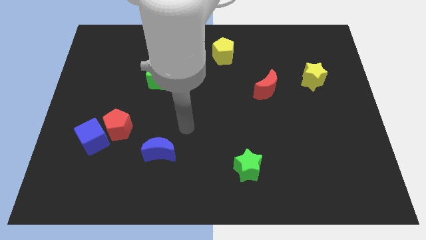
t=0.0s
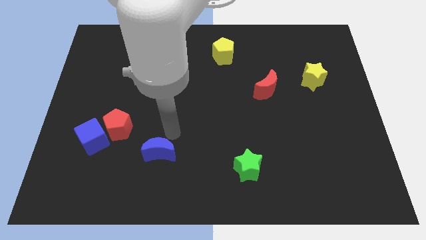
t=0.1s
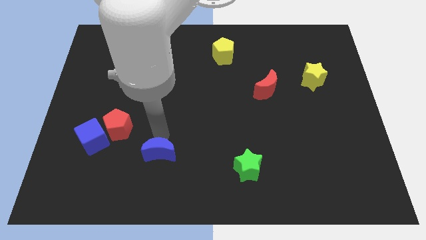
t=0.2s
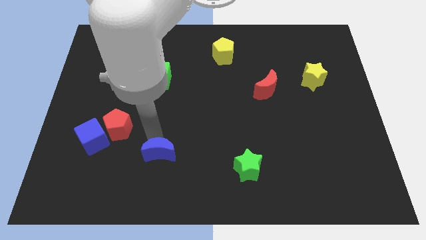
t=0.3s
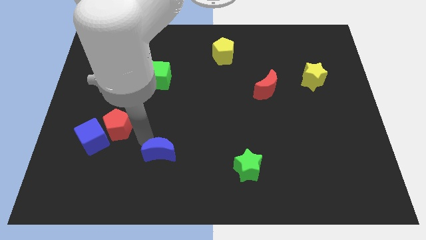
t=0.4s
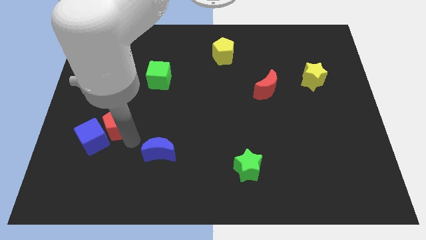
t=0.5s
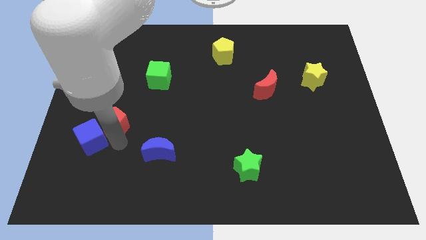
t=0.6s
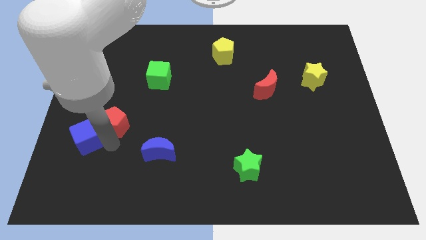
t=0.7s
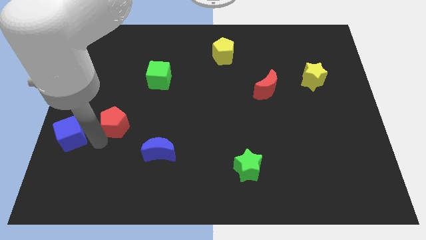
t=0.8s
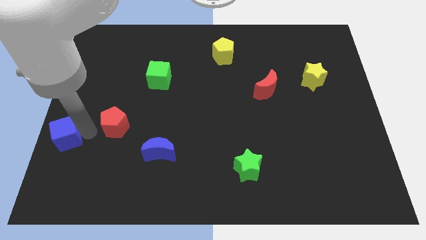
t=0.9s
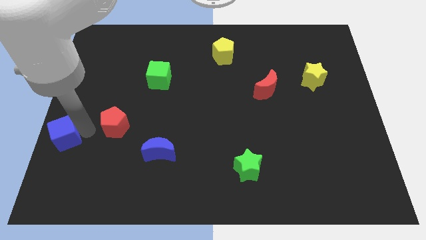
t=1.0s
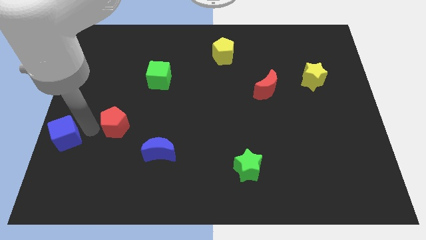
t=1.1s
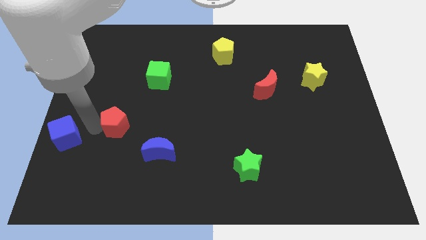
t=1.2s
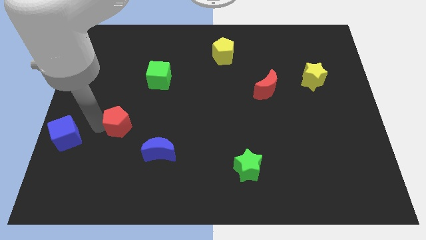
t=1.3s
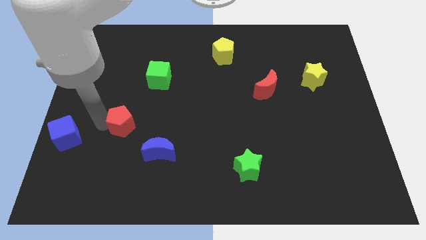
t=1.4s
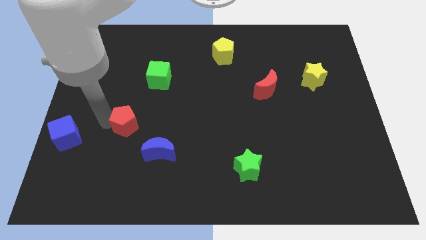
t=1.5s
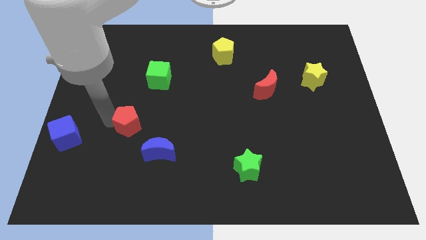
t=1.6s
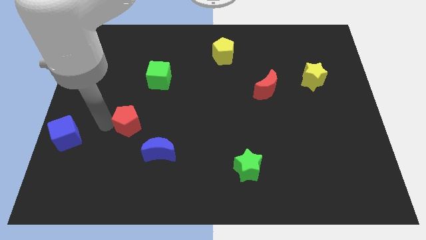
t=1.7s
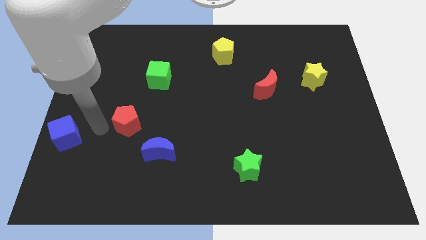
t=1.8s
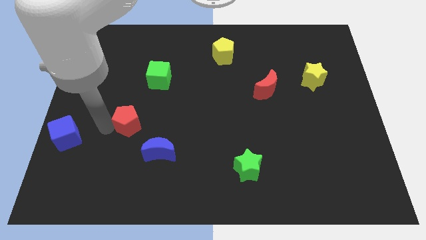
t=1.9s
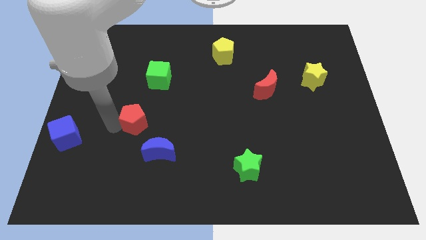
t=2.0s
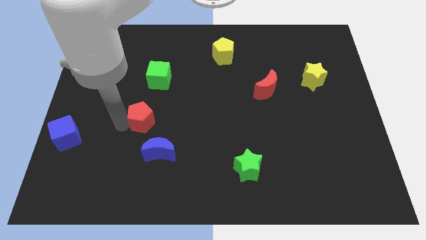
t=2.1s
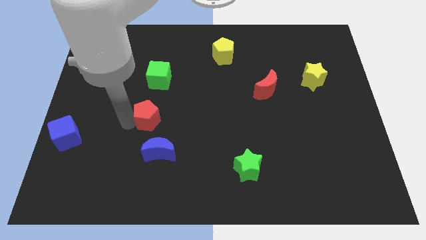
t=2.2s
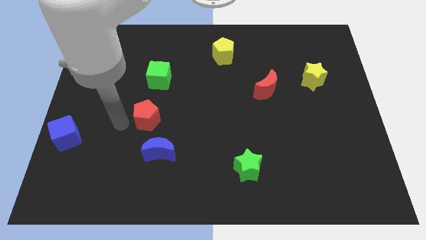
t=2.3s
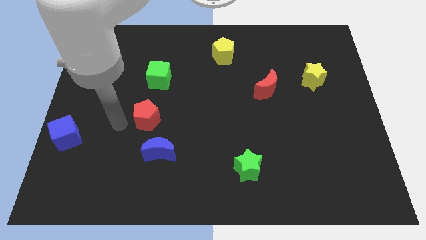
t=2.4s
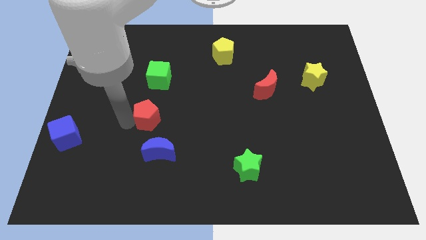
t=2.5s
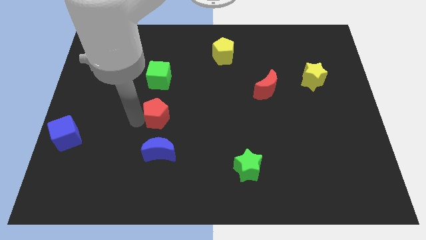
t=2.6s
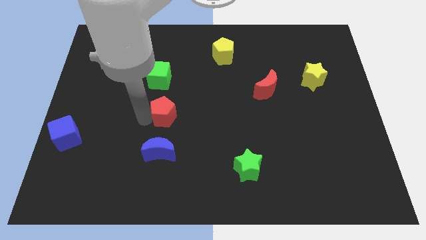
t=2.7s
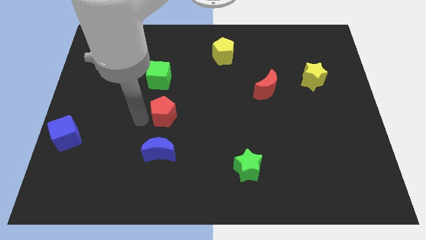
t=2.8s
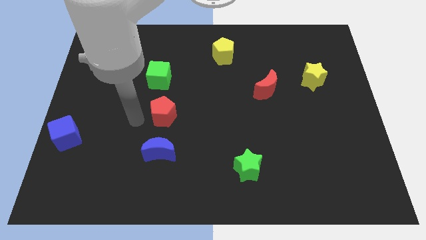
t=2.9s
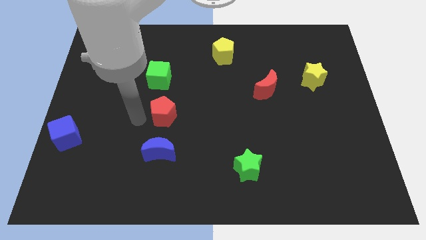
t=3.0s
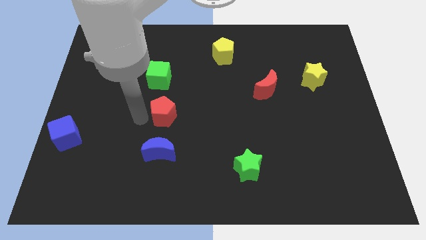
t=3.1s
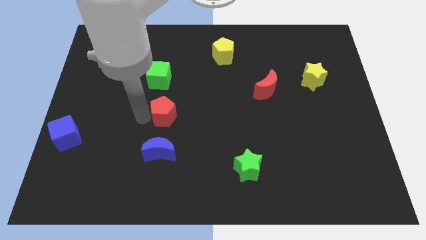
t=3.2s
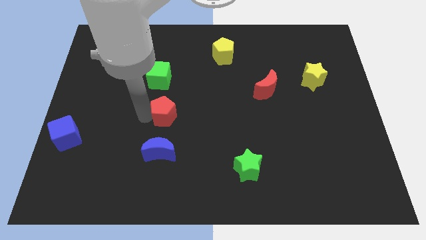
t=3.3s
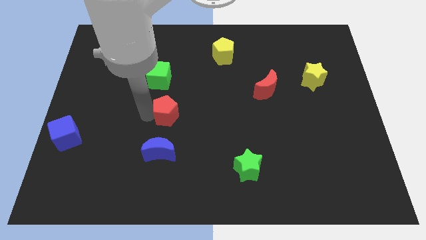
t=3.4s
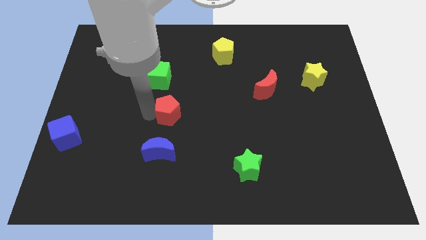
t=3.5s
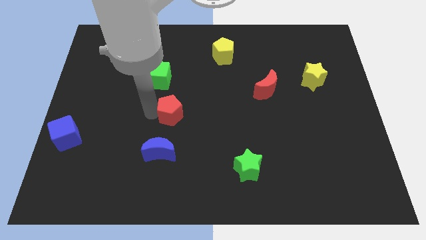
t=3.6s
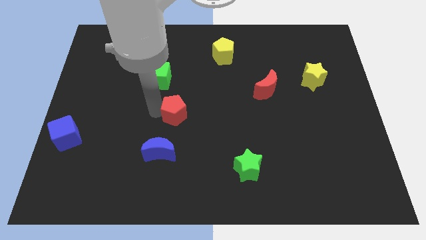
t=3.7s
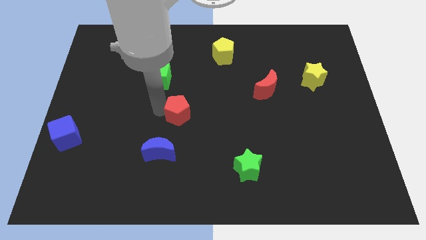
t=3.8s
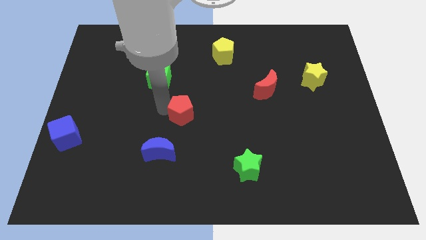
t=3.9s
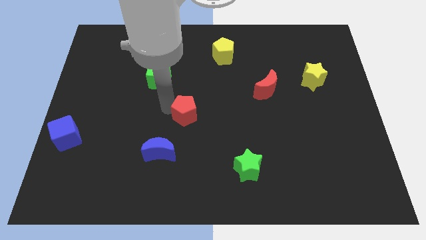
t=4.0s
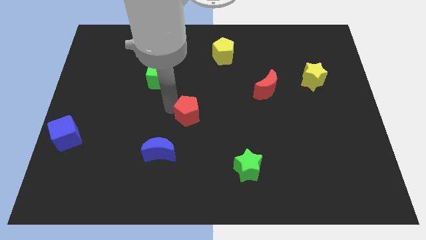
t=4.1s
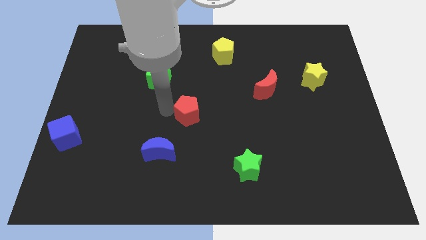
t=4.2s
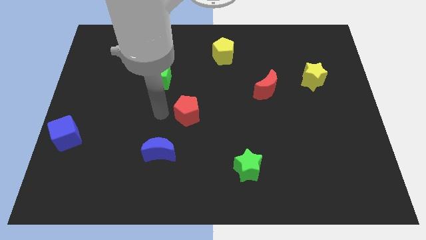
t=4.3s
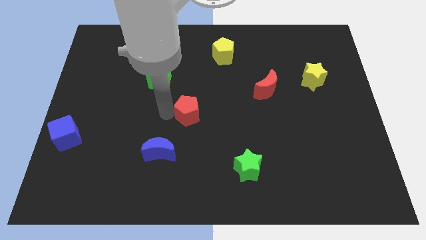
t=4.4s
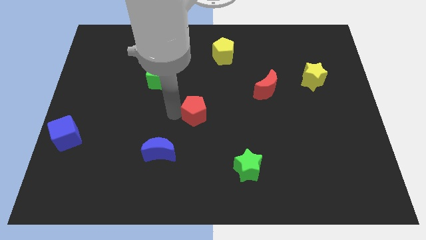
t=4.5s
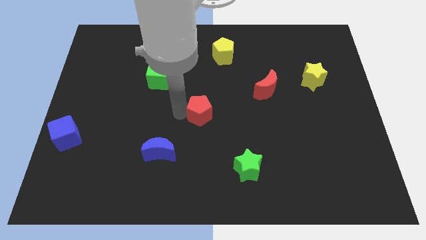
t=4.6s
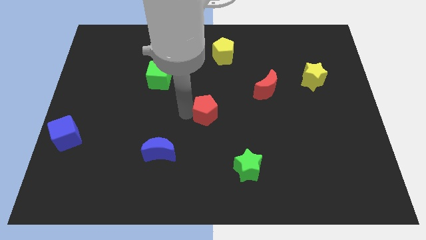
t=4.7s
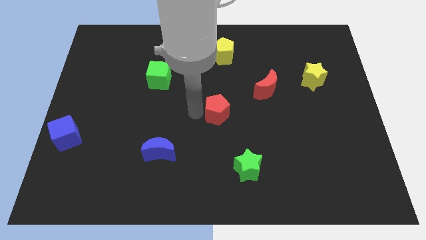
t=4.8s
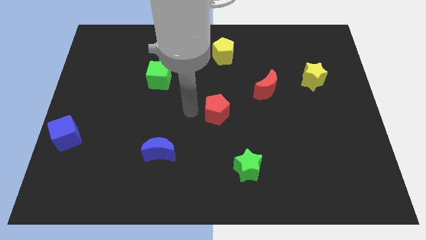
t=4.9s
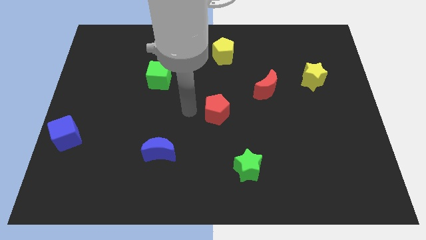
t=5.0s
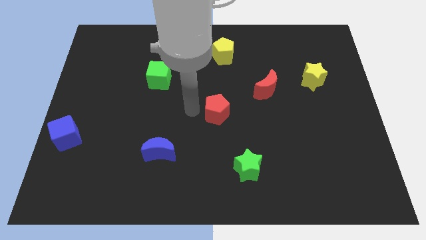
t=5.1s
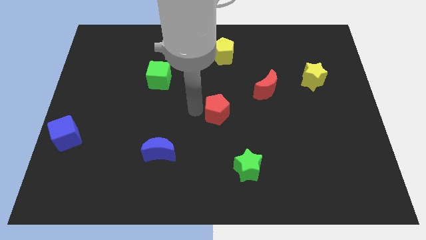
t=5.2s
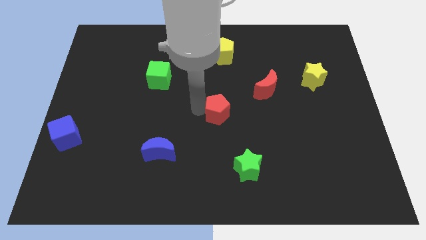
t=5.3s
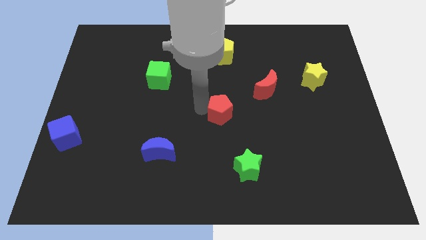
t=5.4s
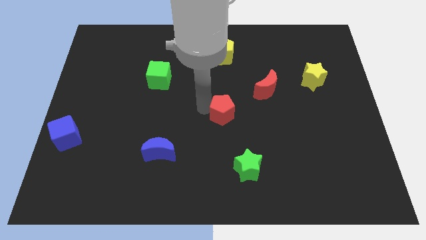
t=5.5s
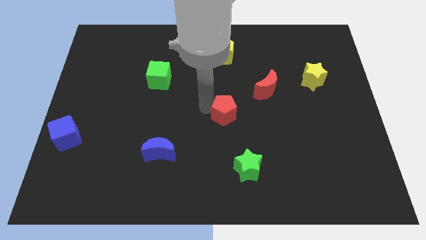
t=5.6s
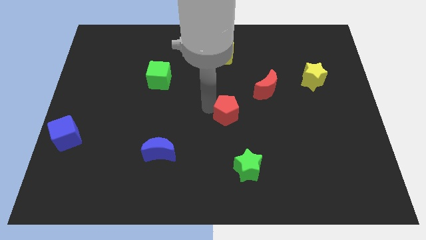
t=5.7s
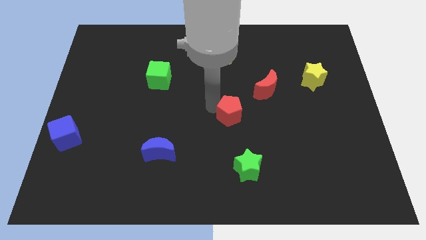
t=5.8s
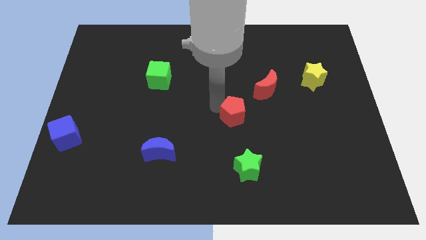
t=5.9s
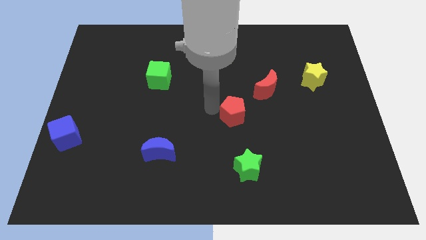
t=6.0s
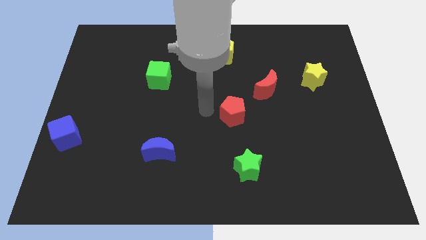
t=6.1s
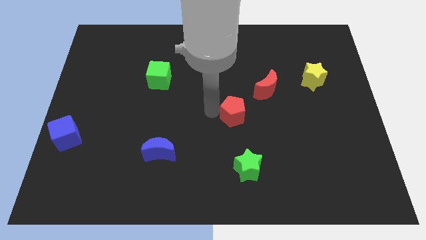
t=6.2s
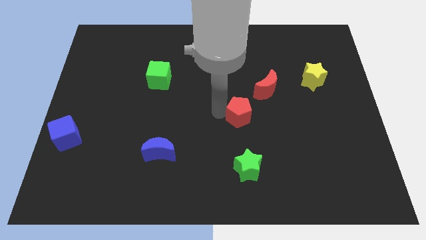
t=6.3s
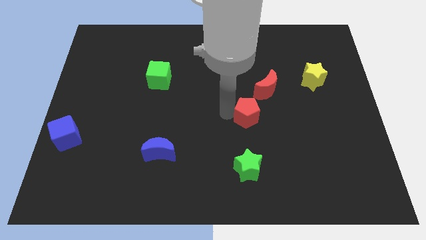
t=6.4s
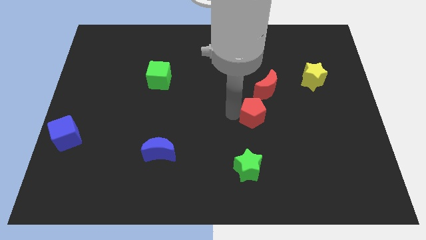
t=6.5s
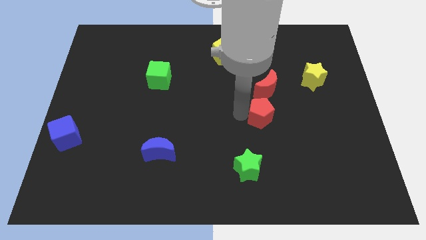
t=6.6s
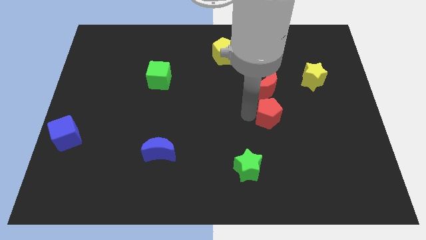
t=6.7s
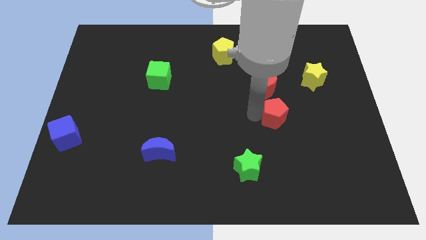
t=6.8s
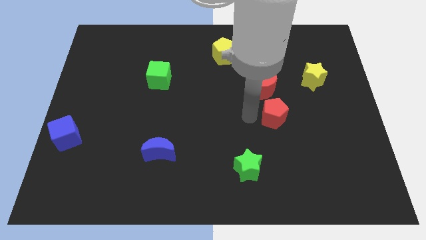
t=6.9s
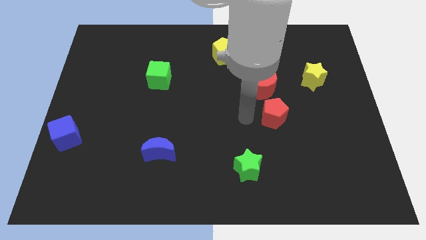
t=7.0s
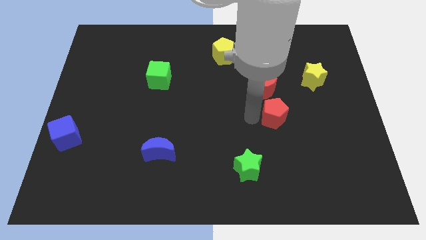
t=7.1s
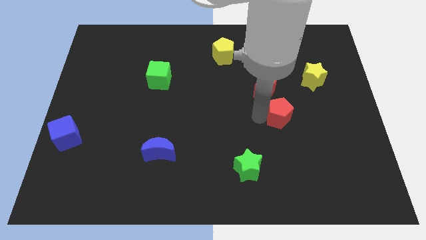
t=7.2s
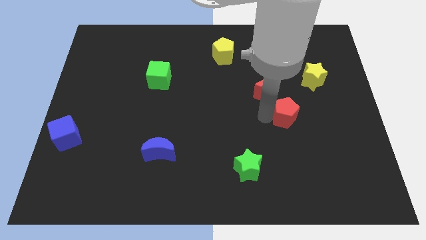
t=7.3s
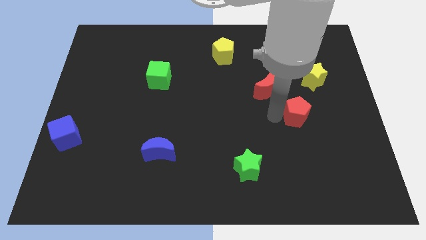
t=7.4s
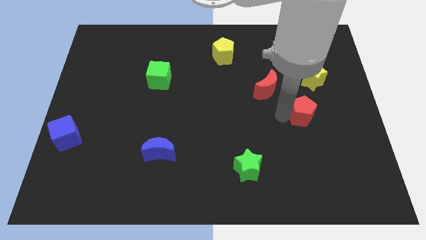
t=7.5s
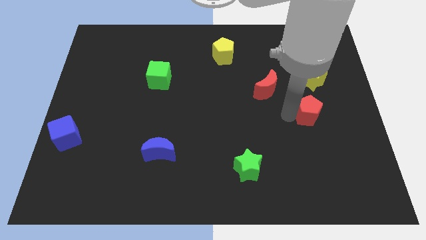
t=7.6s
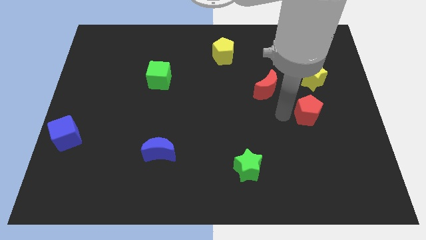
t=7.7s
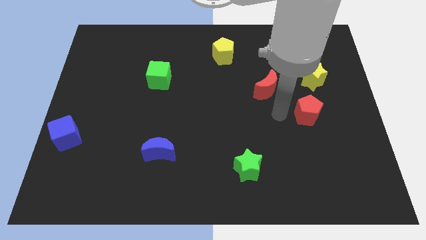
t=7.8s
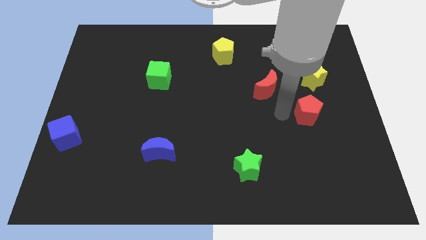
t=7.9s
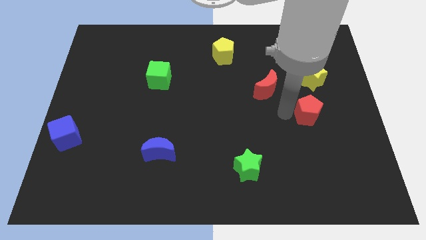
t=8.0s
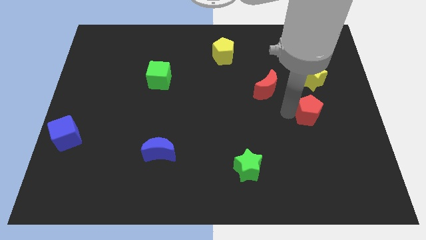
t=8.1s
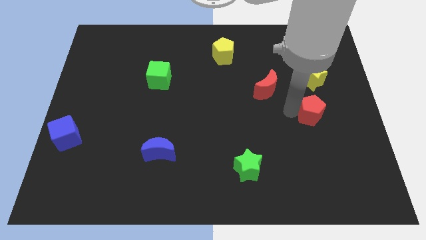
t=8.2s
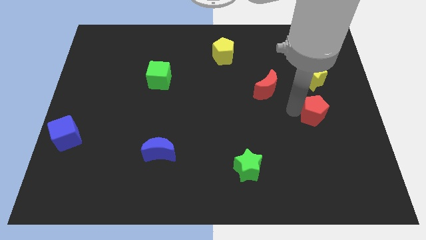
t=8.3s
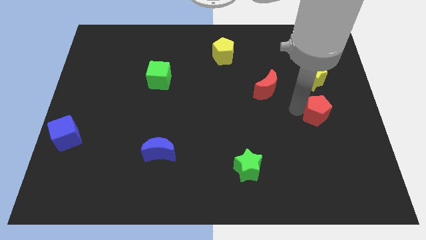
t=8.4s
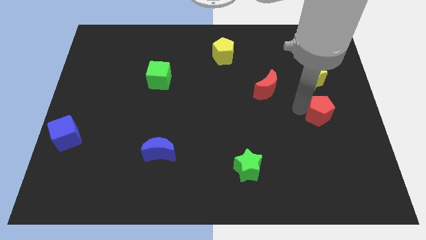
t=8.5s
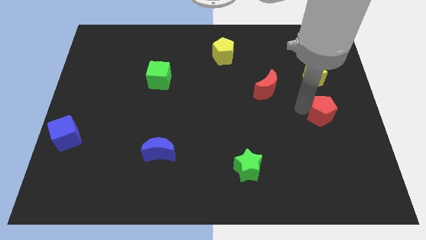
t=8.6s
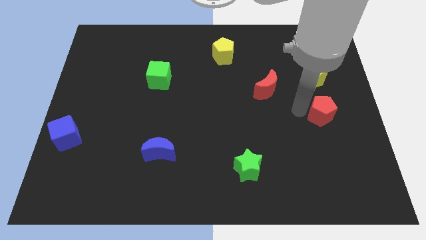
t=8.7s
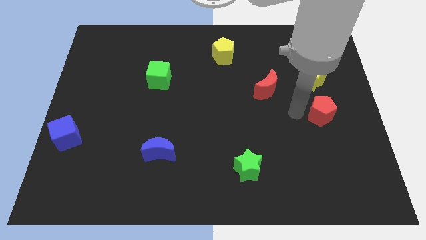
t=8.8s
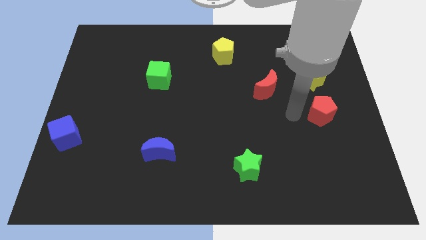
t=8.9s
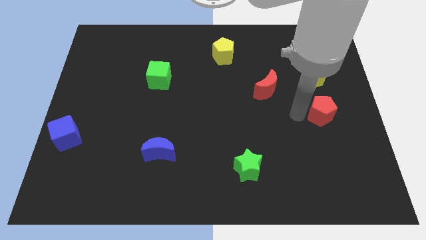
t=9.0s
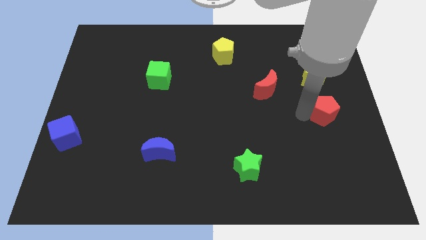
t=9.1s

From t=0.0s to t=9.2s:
push the red pentagon to the right side of the board
